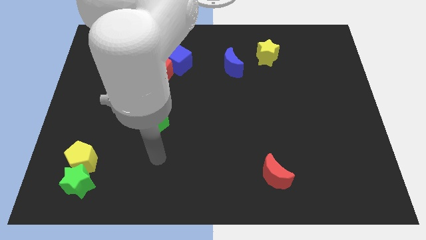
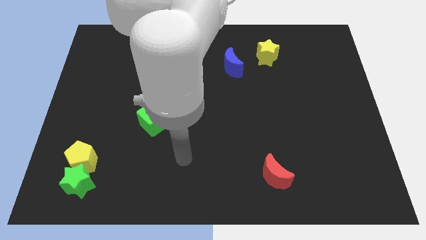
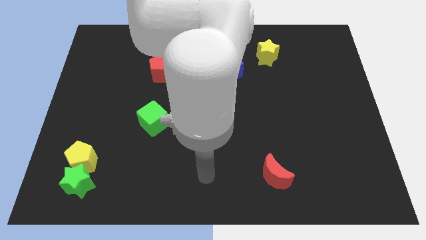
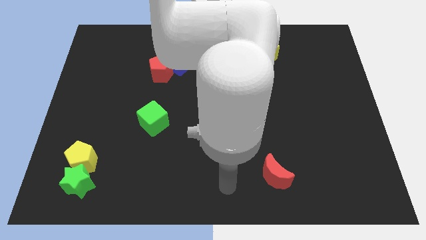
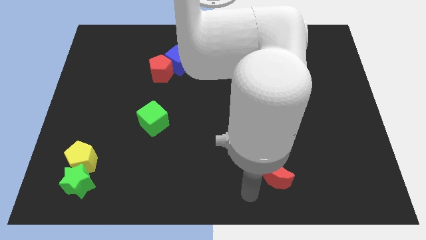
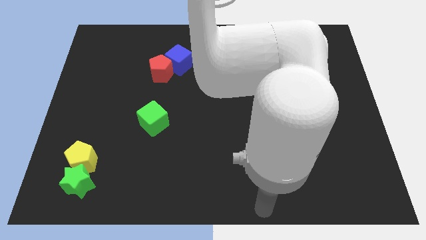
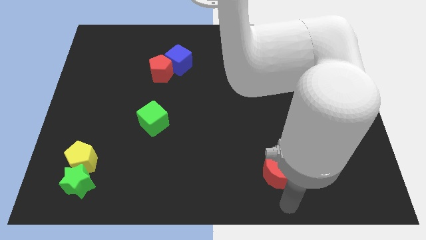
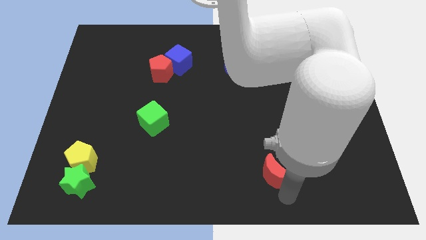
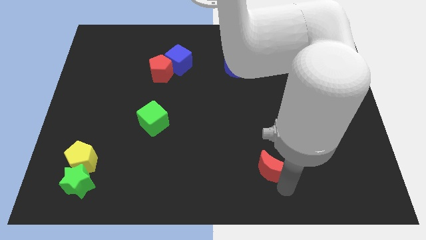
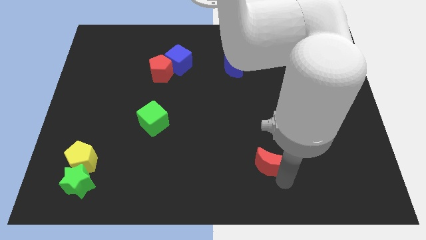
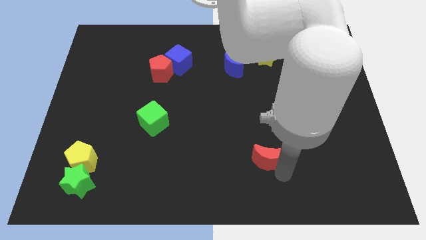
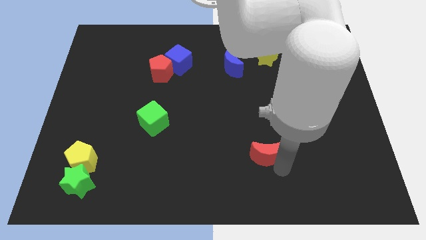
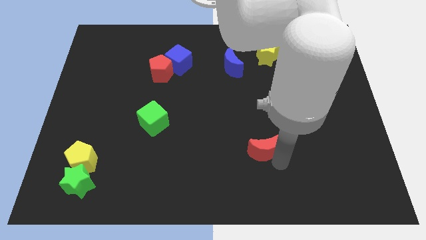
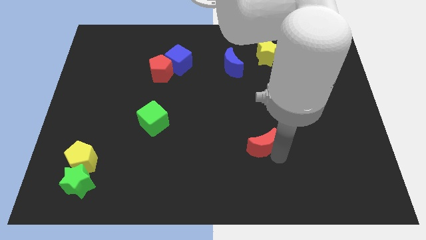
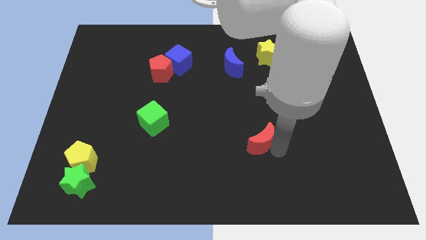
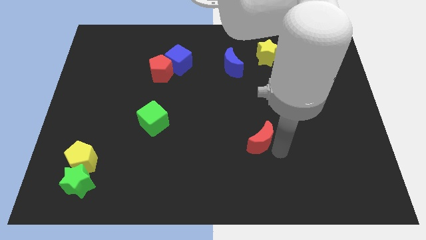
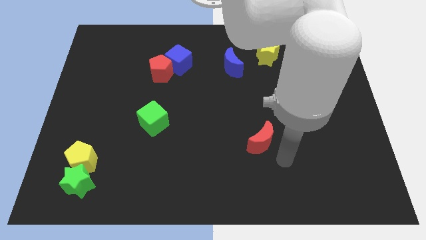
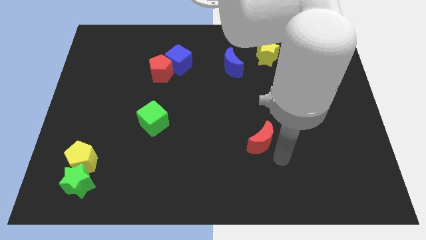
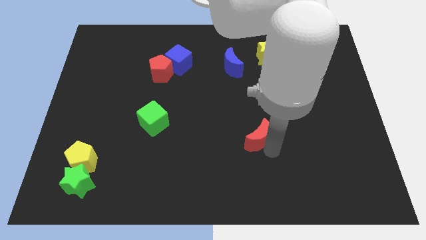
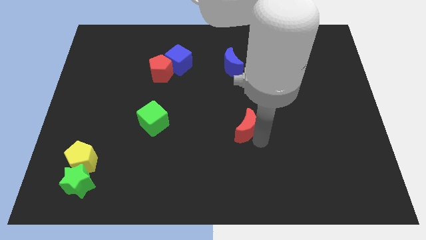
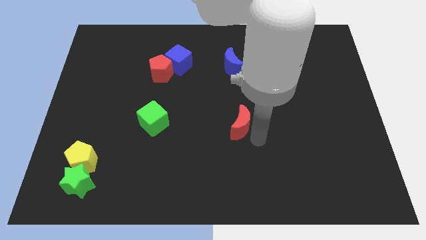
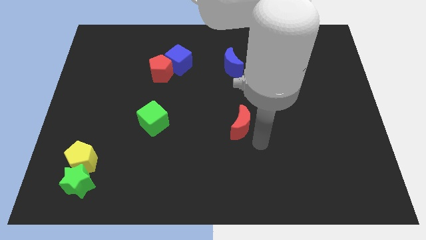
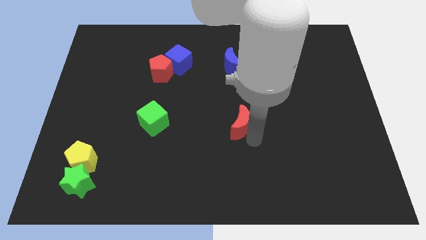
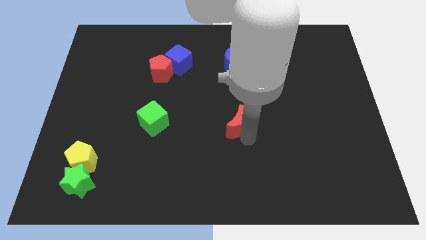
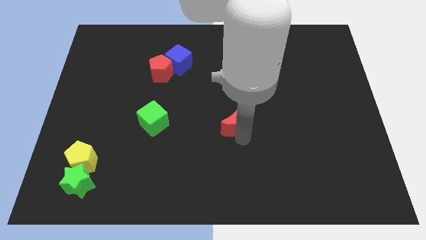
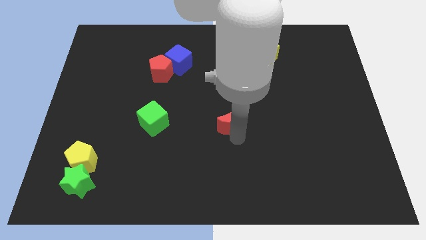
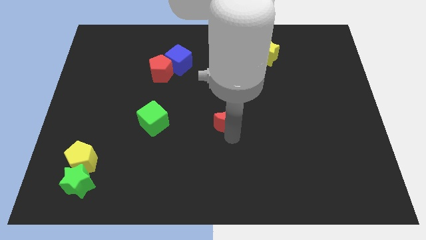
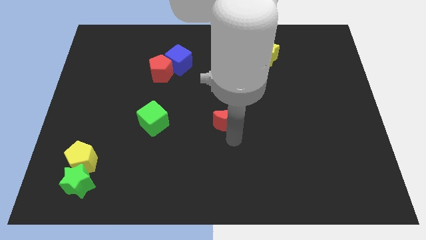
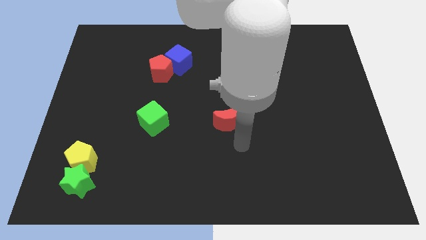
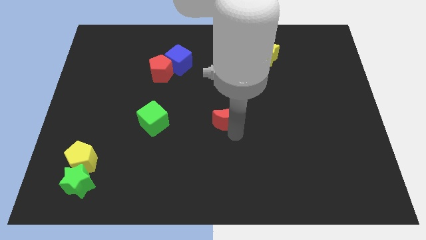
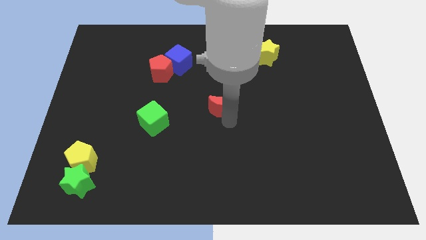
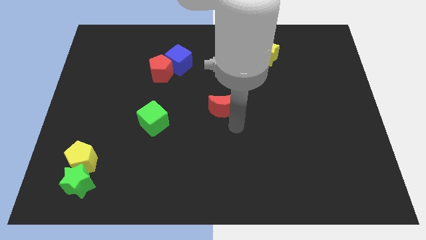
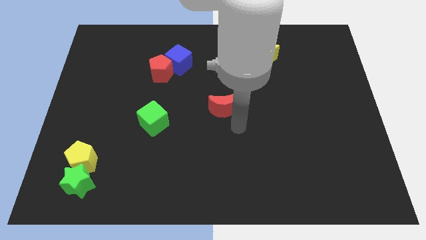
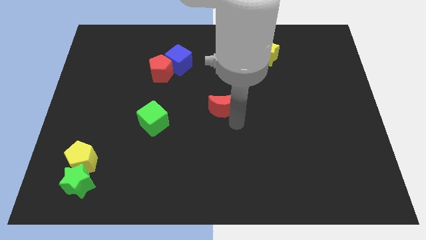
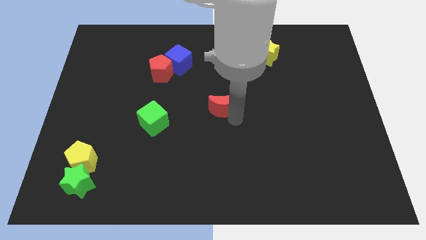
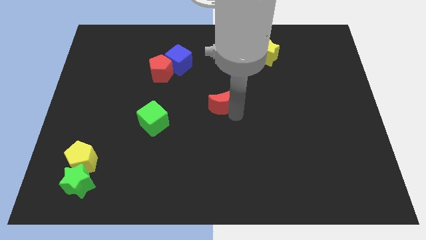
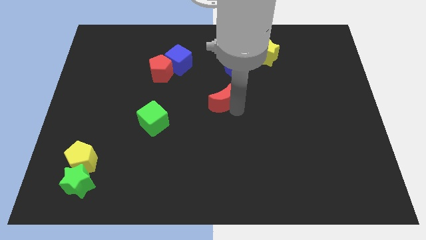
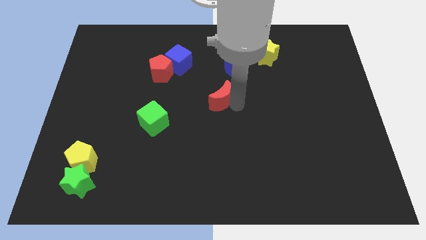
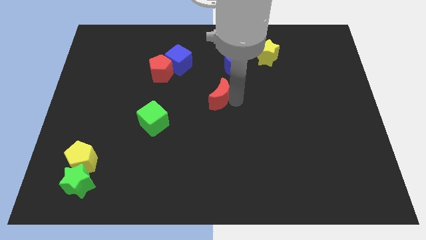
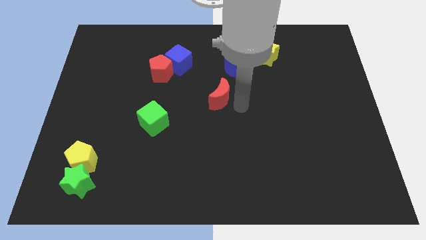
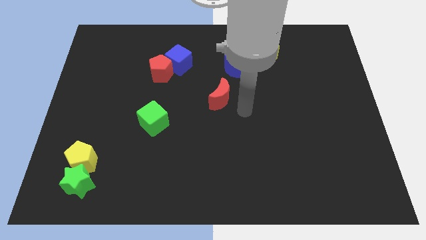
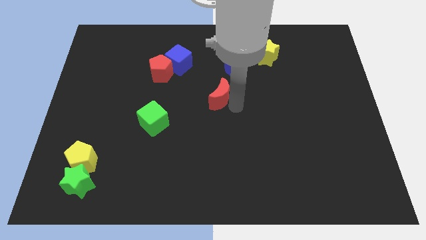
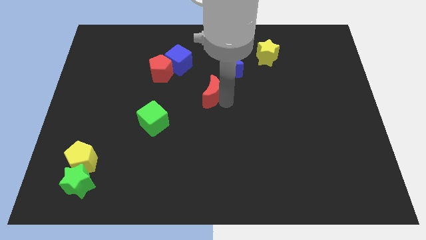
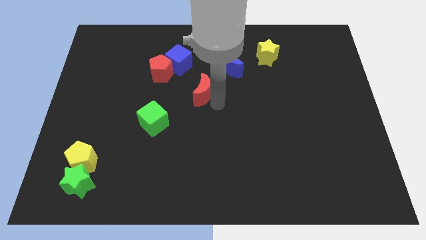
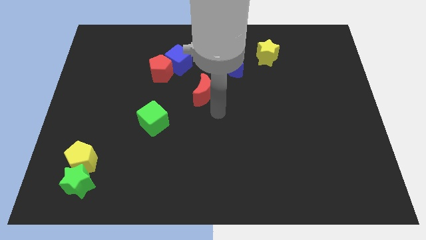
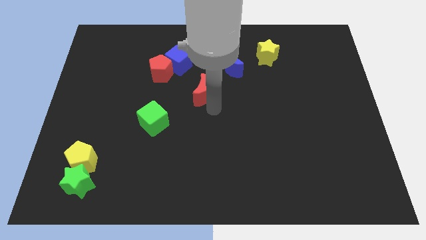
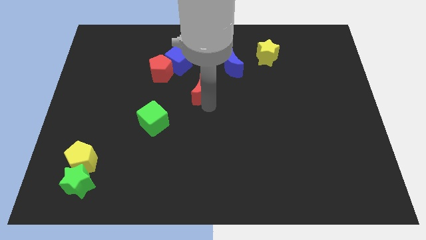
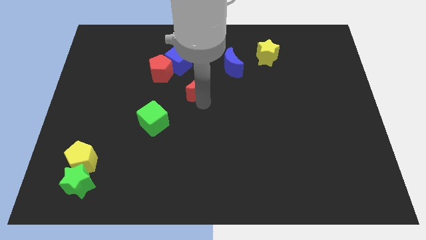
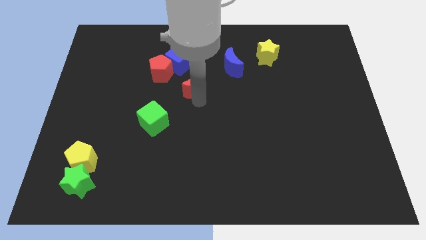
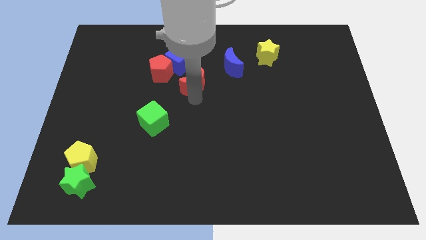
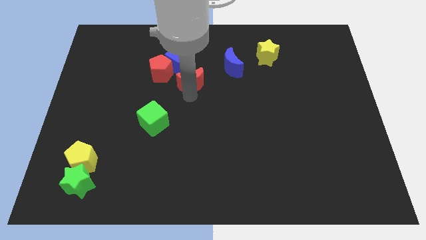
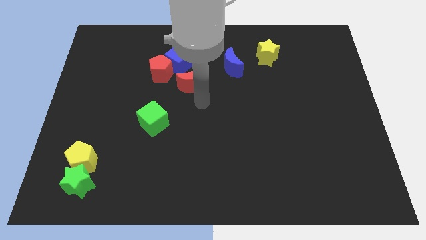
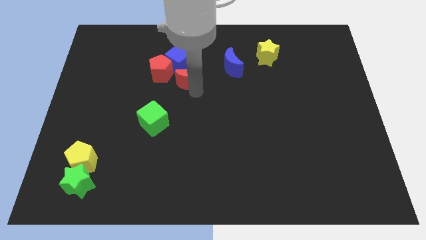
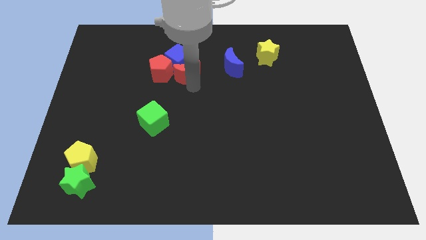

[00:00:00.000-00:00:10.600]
put the red moon towards the blue cube
